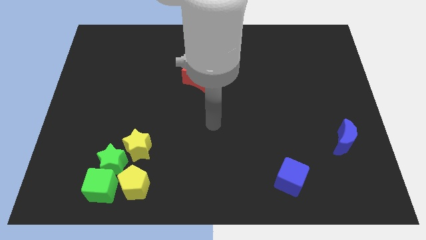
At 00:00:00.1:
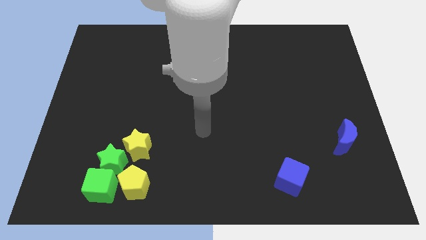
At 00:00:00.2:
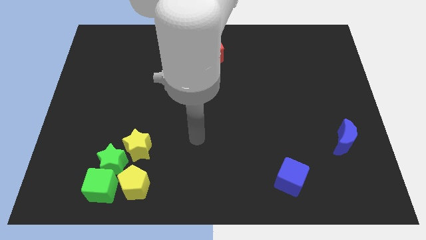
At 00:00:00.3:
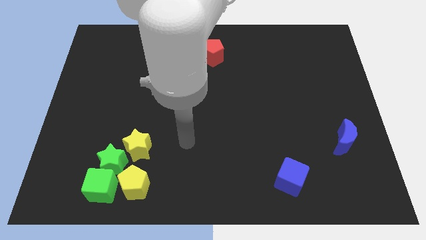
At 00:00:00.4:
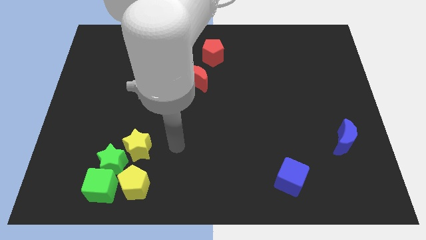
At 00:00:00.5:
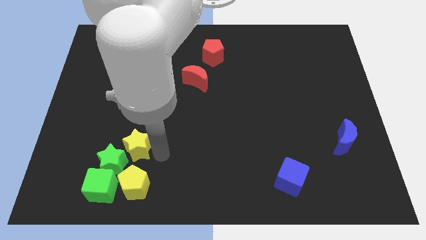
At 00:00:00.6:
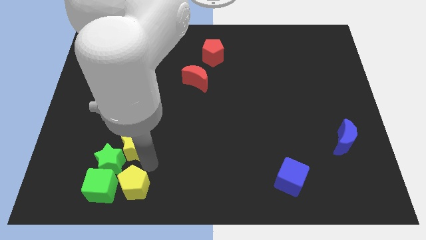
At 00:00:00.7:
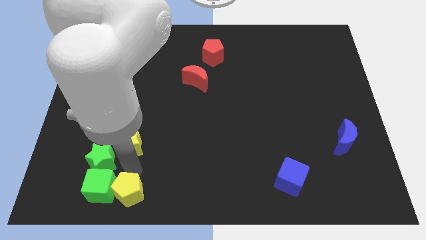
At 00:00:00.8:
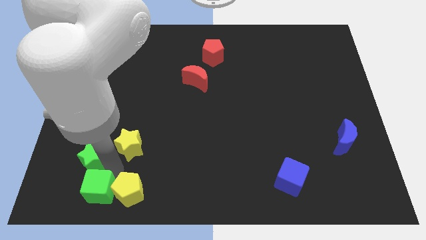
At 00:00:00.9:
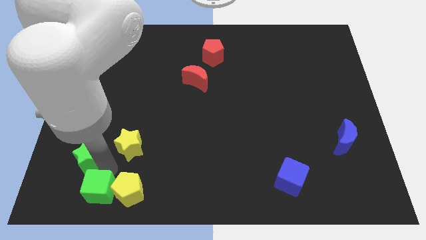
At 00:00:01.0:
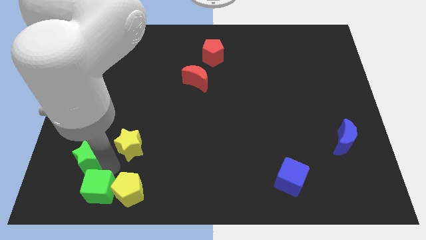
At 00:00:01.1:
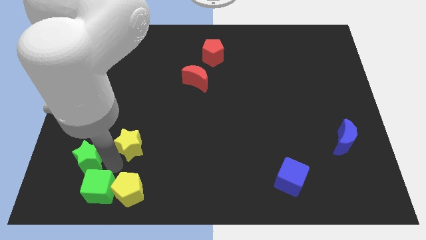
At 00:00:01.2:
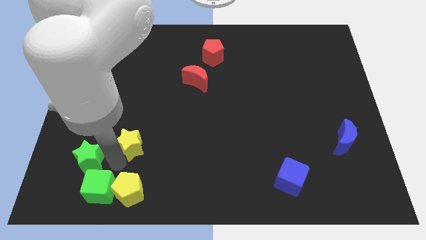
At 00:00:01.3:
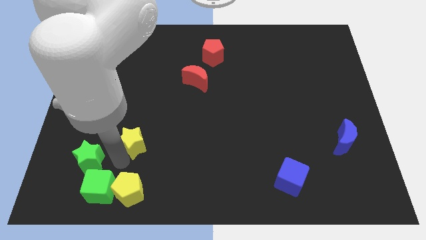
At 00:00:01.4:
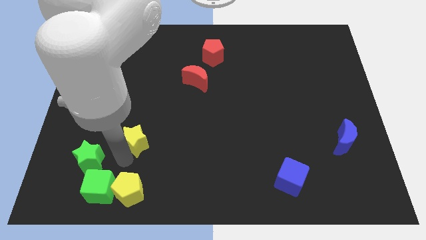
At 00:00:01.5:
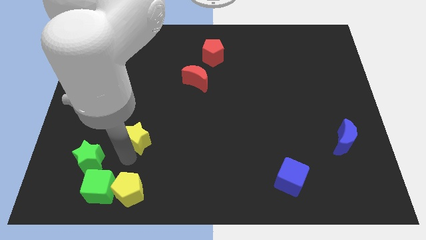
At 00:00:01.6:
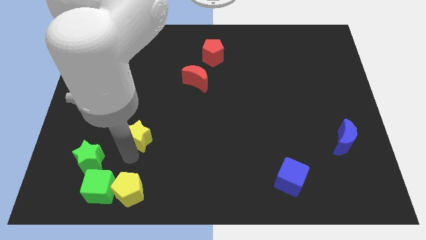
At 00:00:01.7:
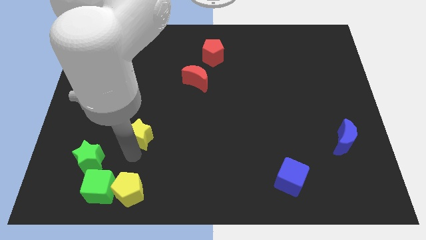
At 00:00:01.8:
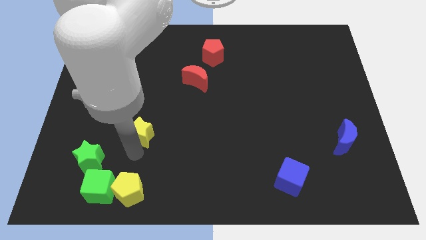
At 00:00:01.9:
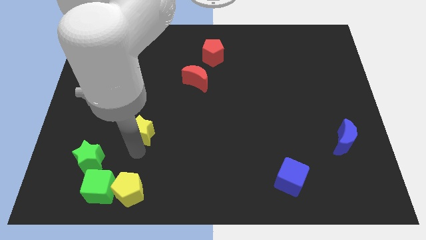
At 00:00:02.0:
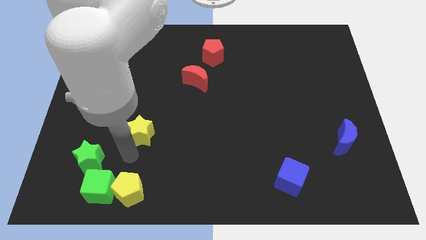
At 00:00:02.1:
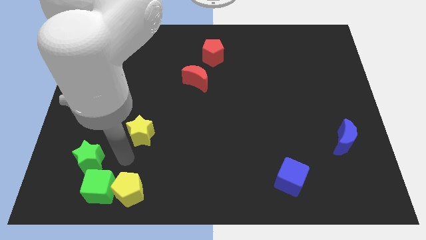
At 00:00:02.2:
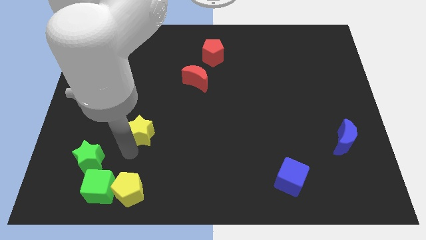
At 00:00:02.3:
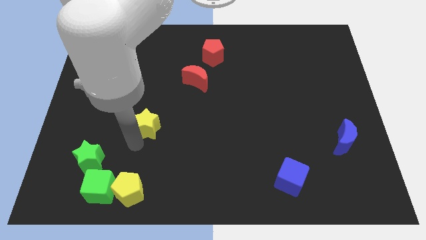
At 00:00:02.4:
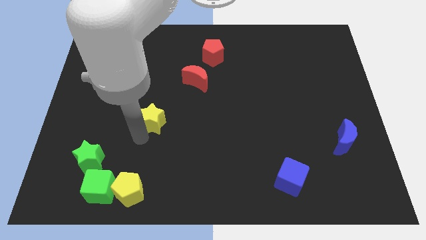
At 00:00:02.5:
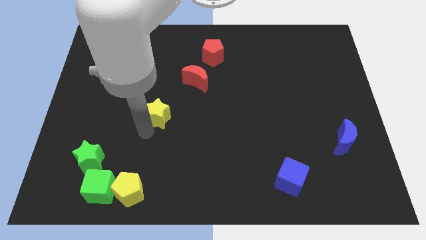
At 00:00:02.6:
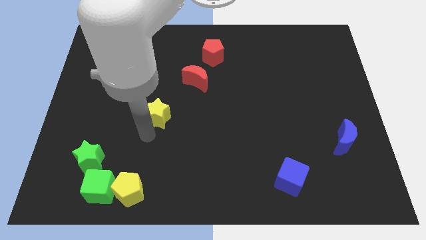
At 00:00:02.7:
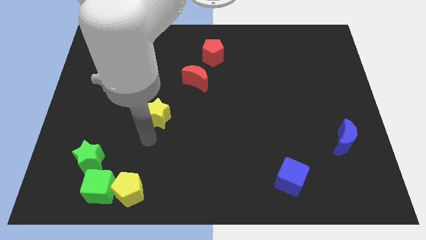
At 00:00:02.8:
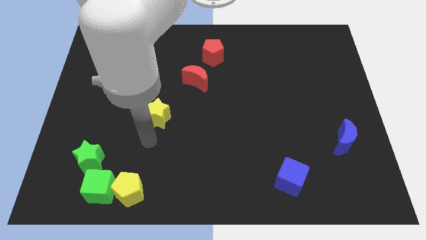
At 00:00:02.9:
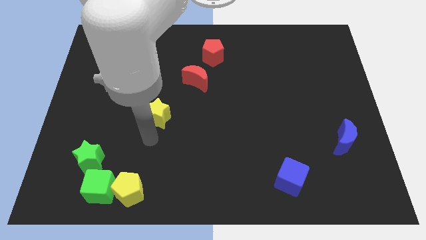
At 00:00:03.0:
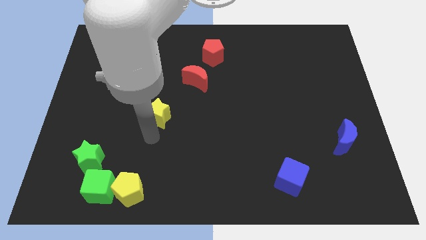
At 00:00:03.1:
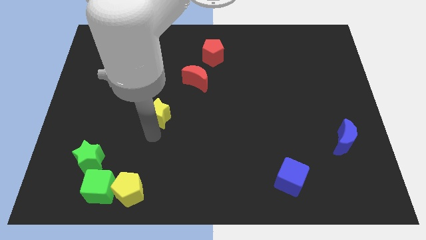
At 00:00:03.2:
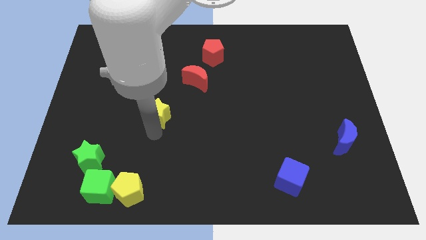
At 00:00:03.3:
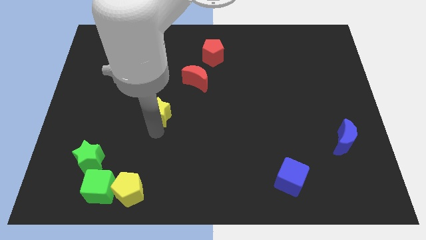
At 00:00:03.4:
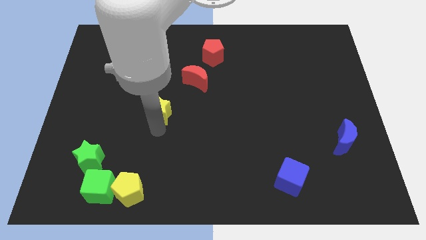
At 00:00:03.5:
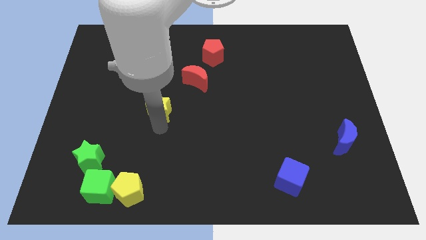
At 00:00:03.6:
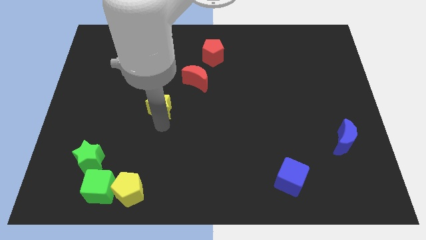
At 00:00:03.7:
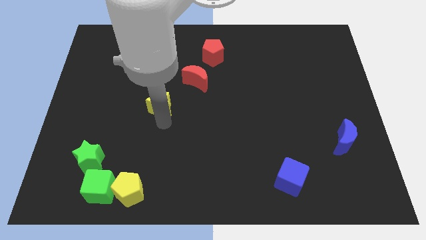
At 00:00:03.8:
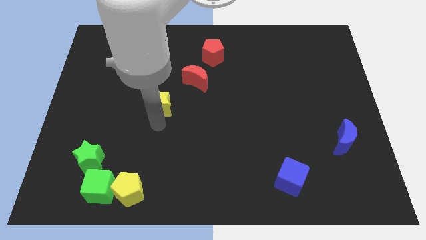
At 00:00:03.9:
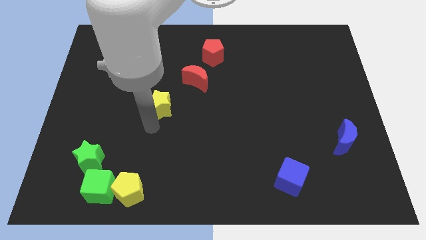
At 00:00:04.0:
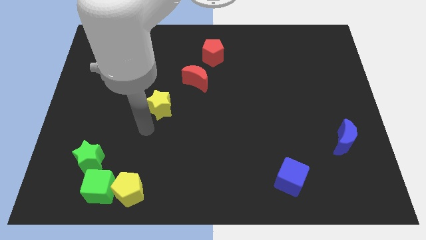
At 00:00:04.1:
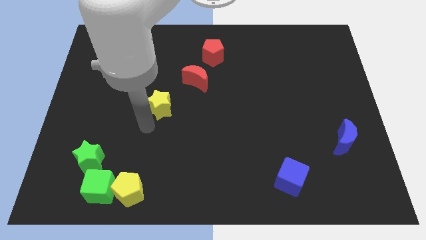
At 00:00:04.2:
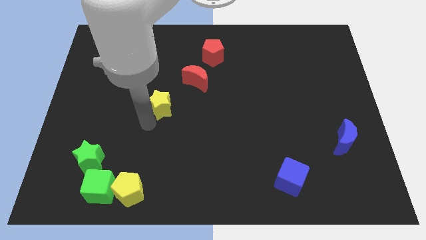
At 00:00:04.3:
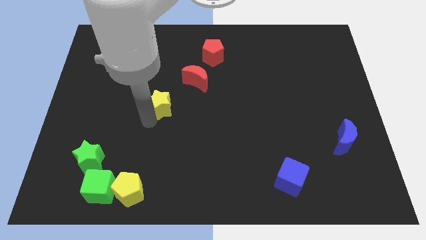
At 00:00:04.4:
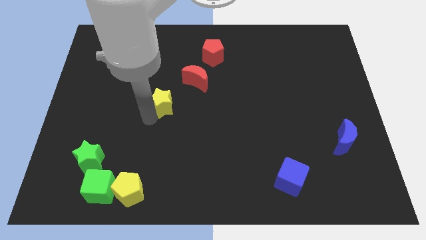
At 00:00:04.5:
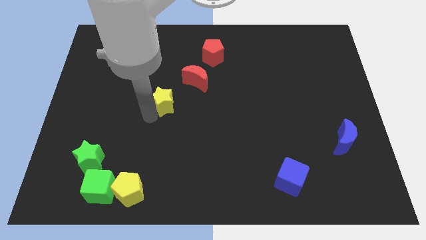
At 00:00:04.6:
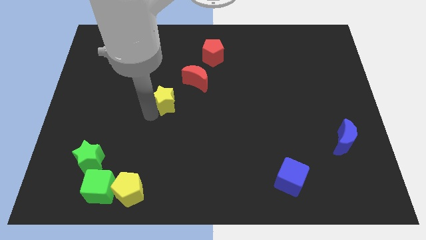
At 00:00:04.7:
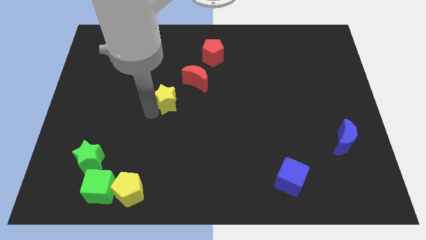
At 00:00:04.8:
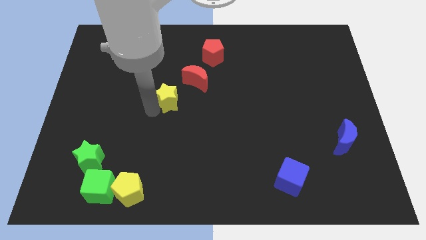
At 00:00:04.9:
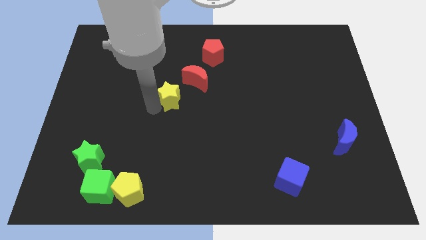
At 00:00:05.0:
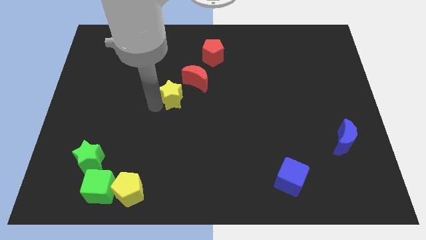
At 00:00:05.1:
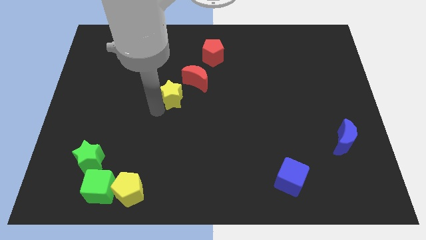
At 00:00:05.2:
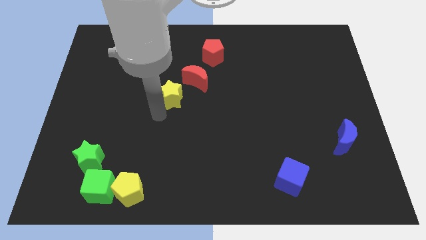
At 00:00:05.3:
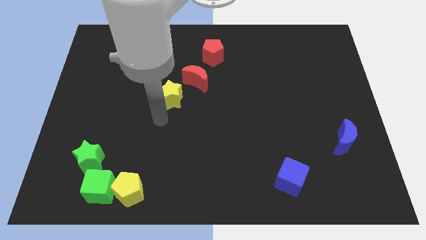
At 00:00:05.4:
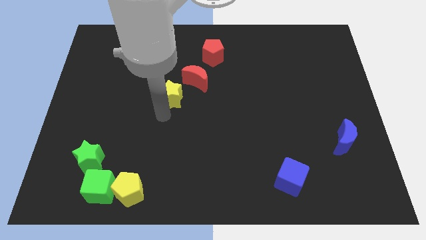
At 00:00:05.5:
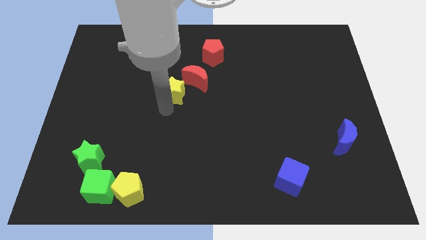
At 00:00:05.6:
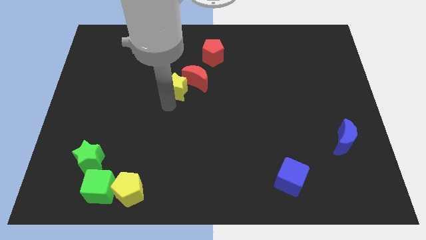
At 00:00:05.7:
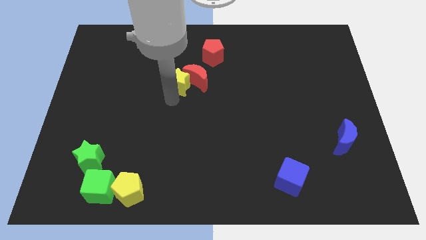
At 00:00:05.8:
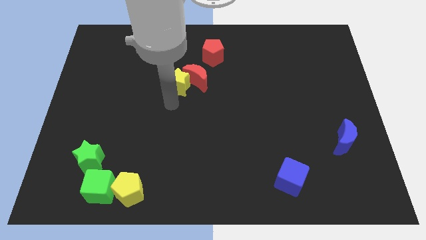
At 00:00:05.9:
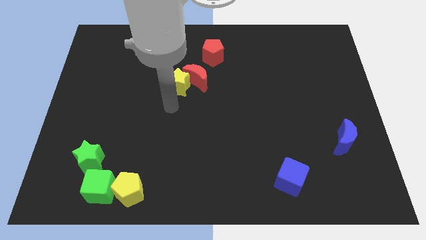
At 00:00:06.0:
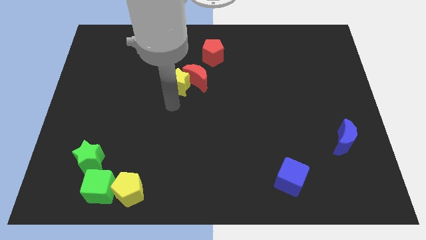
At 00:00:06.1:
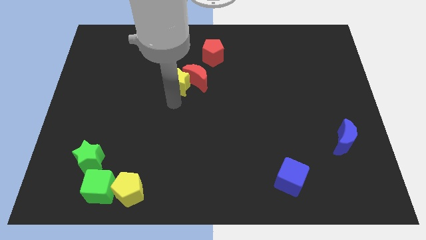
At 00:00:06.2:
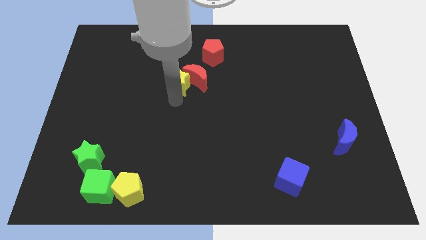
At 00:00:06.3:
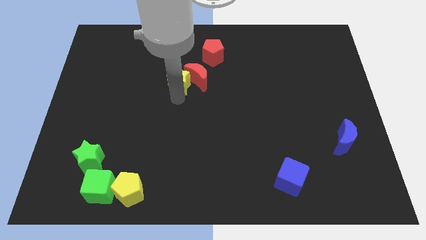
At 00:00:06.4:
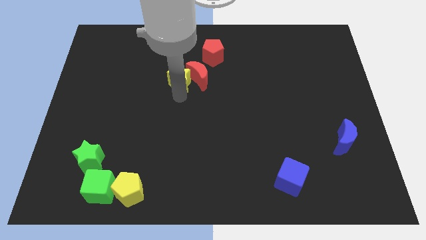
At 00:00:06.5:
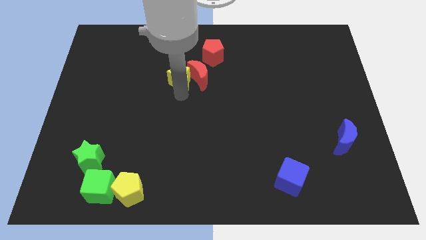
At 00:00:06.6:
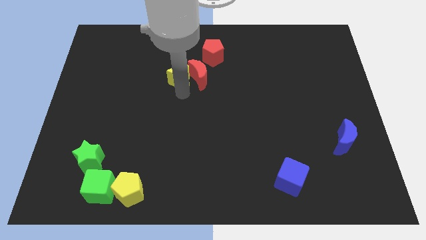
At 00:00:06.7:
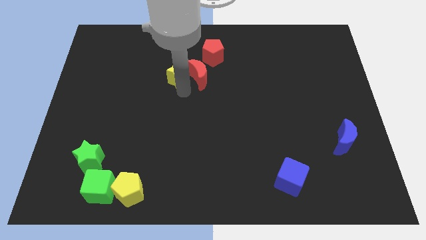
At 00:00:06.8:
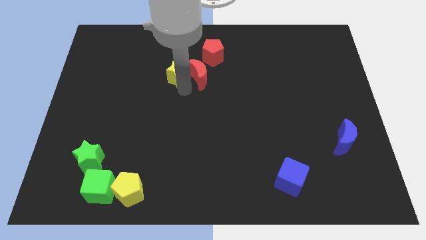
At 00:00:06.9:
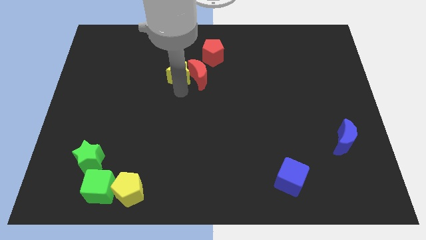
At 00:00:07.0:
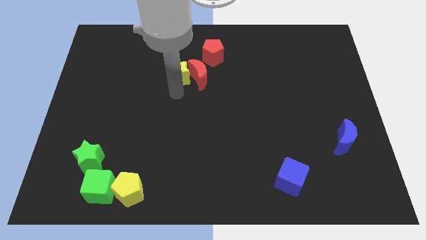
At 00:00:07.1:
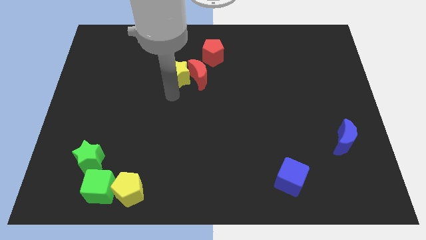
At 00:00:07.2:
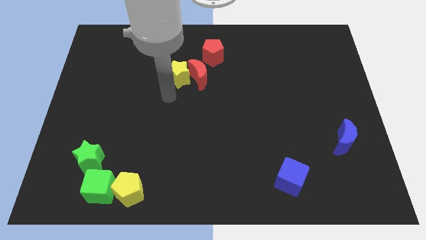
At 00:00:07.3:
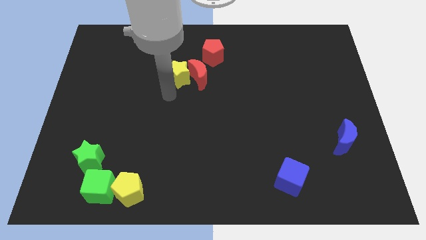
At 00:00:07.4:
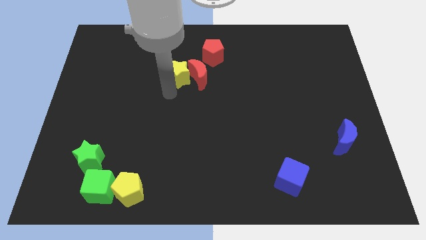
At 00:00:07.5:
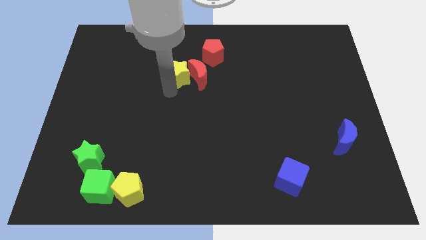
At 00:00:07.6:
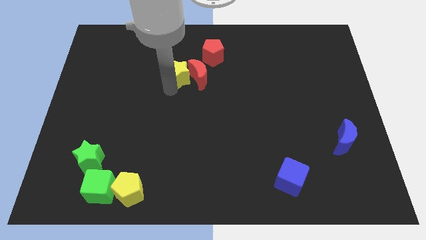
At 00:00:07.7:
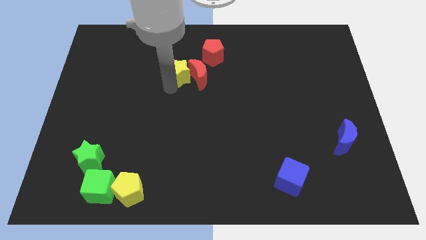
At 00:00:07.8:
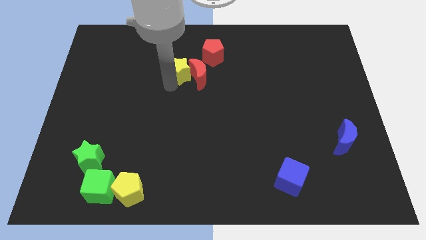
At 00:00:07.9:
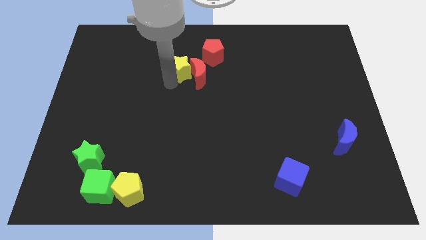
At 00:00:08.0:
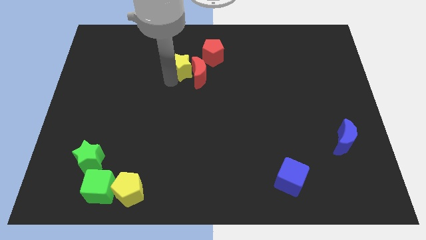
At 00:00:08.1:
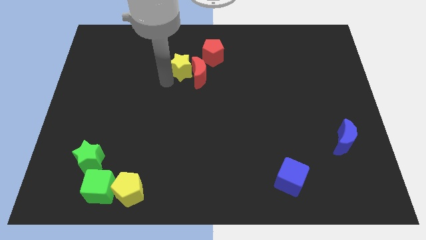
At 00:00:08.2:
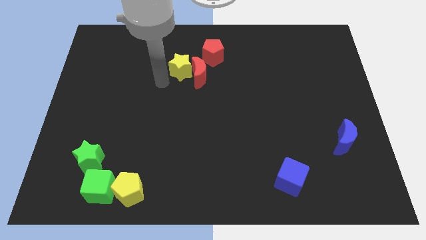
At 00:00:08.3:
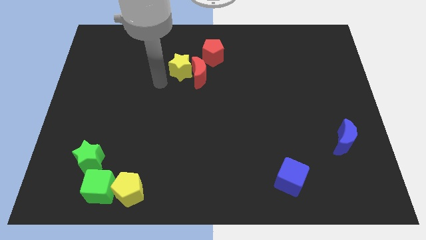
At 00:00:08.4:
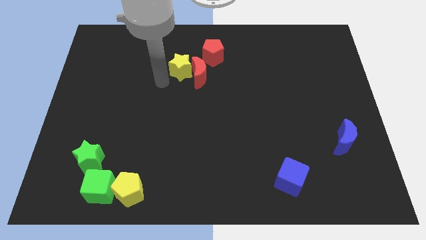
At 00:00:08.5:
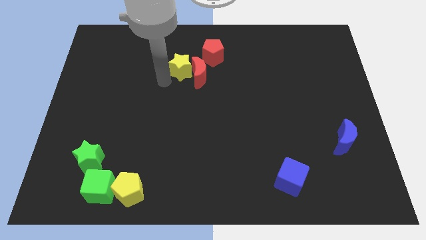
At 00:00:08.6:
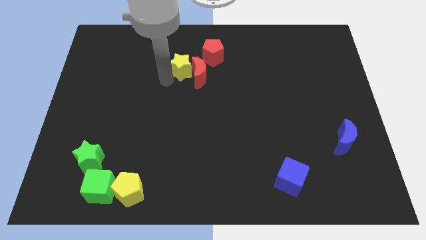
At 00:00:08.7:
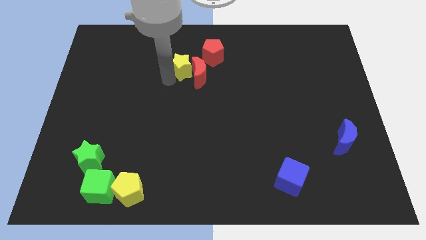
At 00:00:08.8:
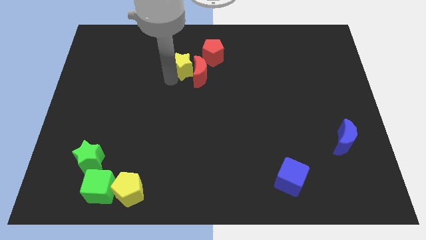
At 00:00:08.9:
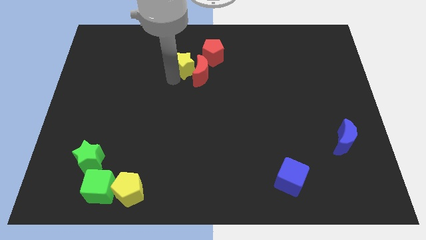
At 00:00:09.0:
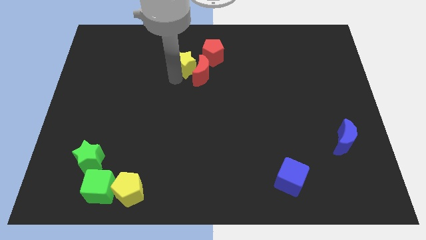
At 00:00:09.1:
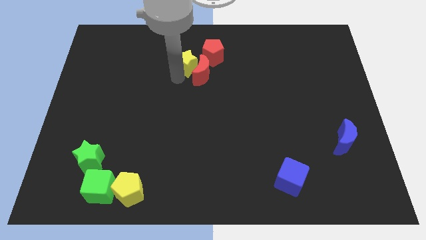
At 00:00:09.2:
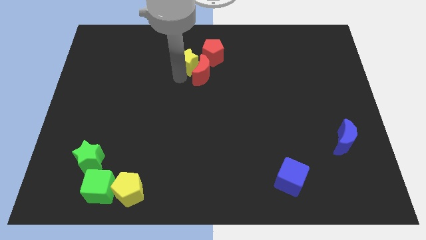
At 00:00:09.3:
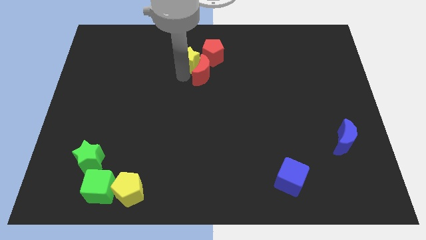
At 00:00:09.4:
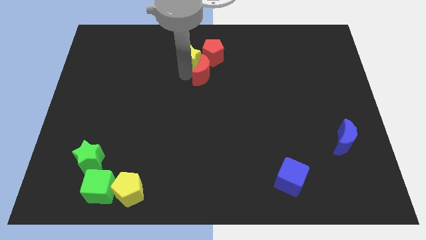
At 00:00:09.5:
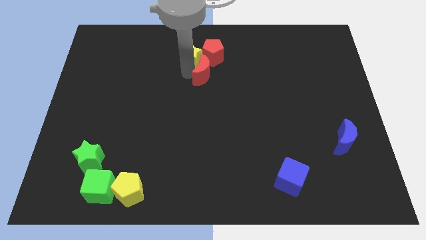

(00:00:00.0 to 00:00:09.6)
push the yellow star next to the red pentagon
